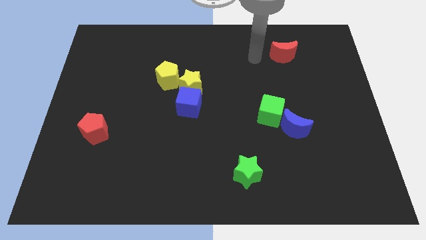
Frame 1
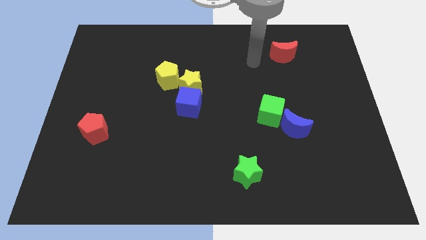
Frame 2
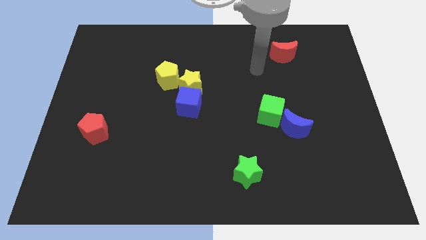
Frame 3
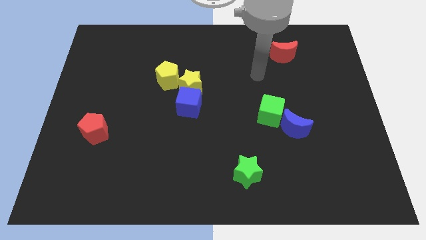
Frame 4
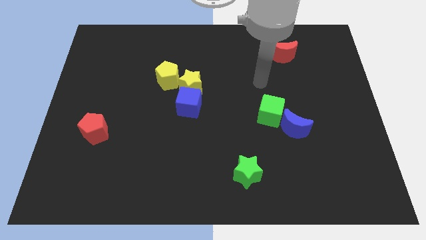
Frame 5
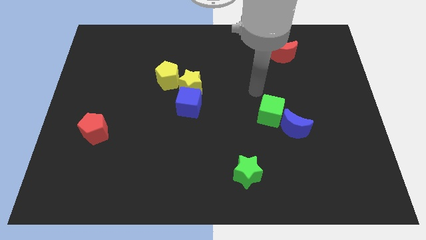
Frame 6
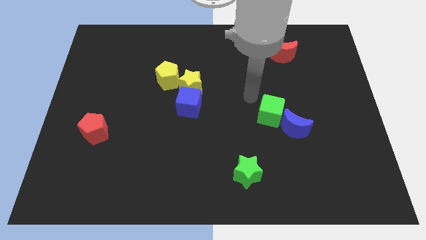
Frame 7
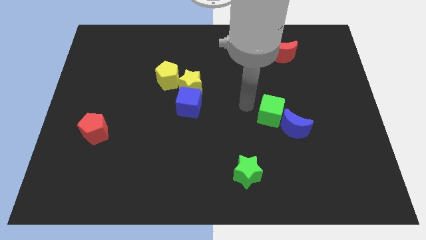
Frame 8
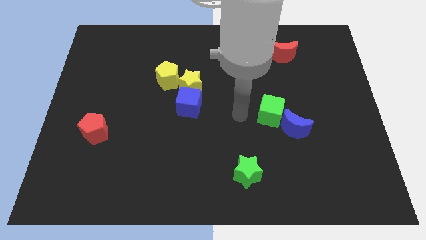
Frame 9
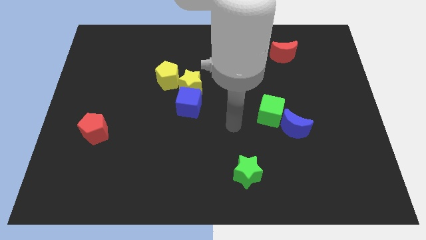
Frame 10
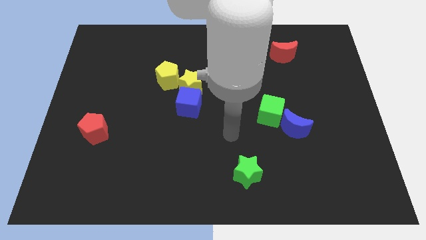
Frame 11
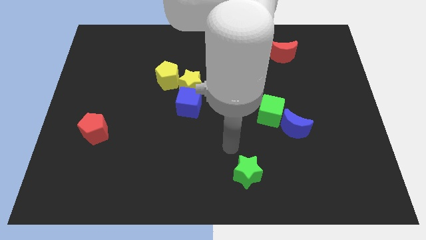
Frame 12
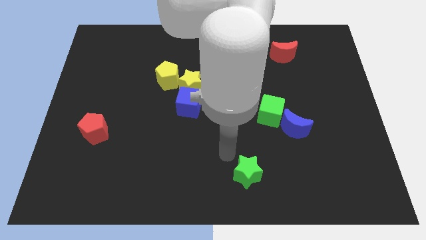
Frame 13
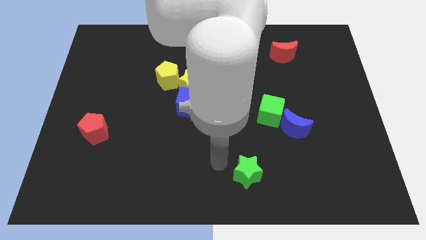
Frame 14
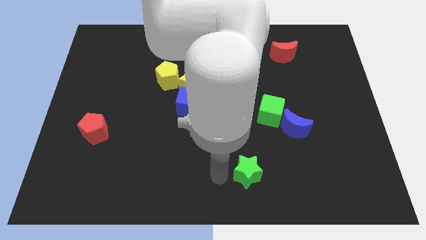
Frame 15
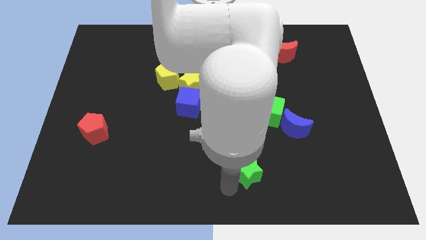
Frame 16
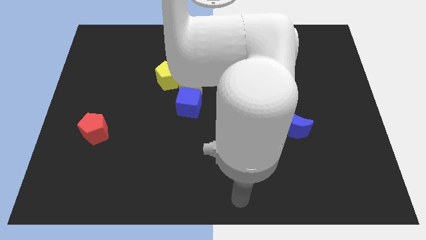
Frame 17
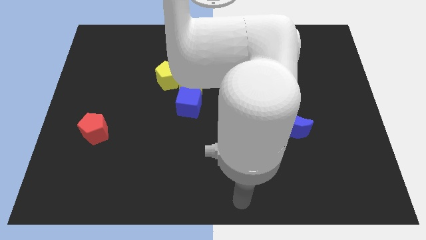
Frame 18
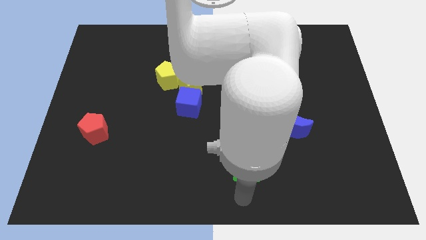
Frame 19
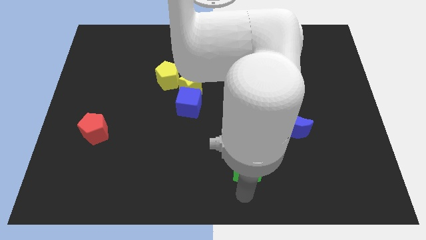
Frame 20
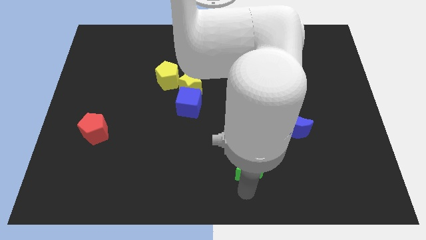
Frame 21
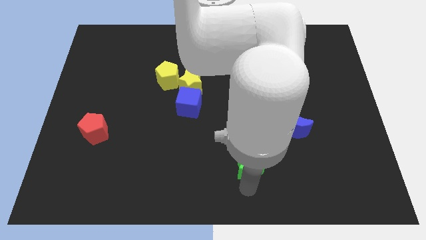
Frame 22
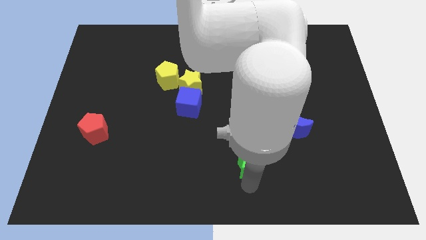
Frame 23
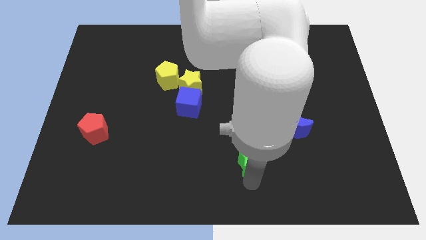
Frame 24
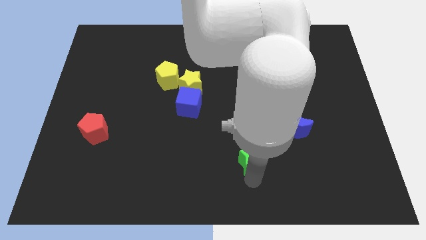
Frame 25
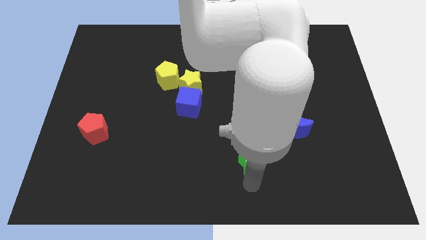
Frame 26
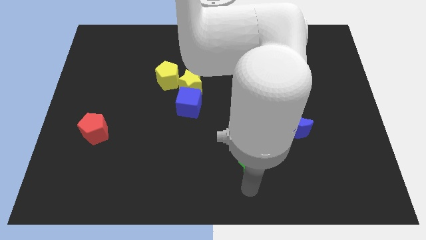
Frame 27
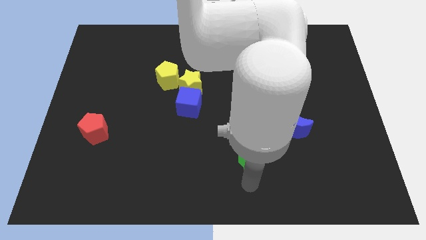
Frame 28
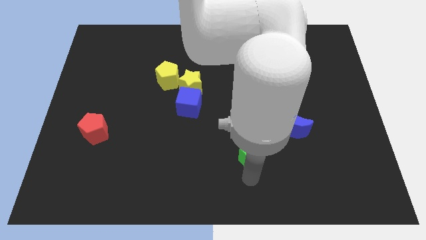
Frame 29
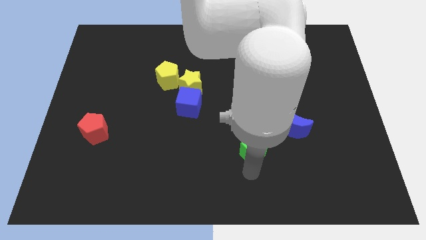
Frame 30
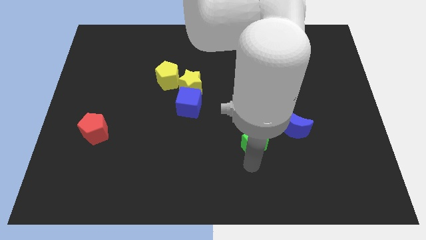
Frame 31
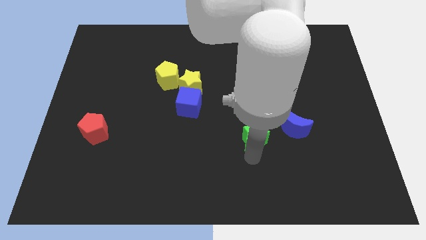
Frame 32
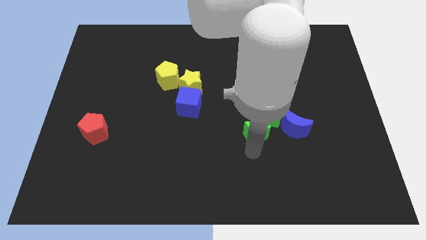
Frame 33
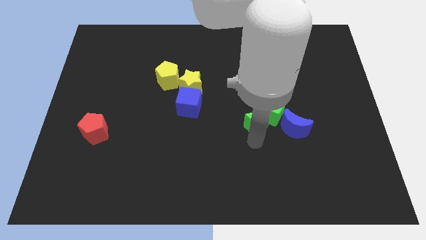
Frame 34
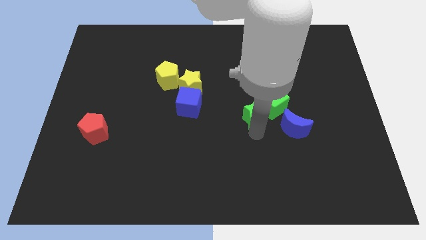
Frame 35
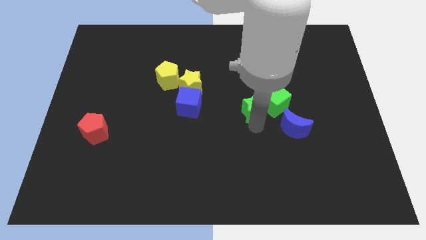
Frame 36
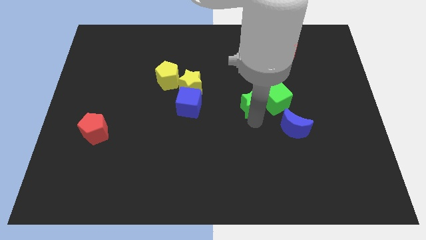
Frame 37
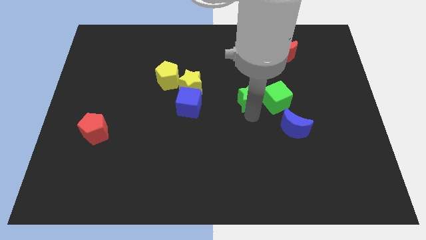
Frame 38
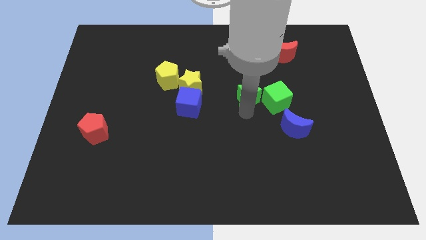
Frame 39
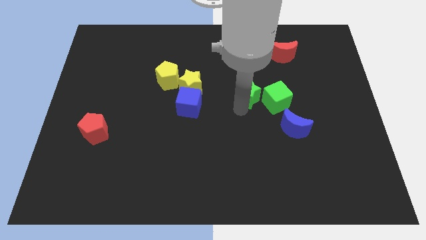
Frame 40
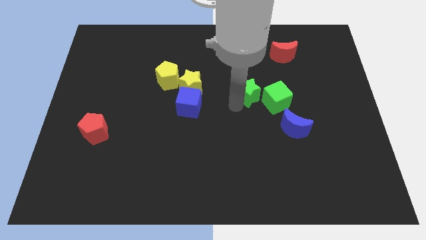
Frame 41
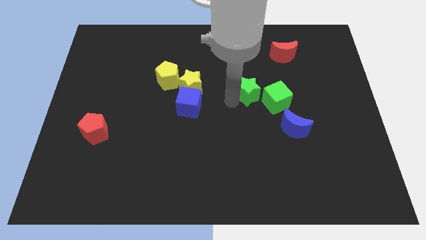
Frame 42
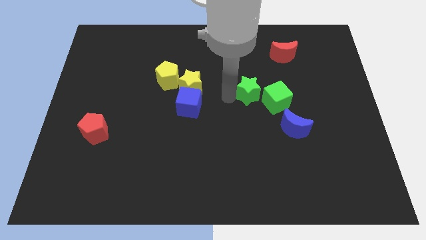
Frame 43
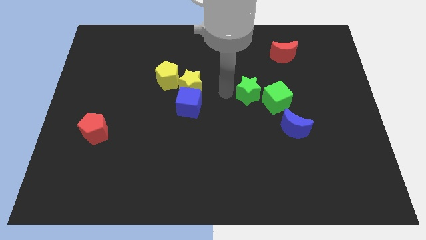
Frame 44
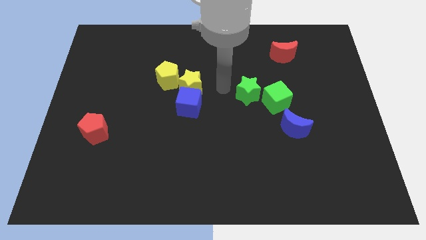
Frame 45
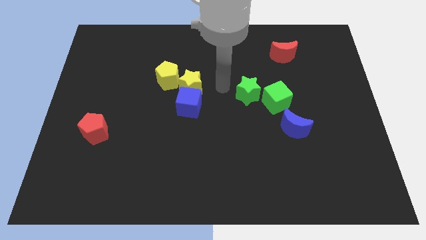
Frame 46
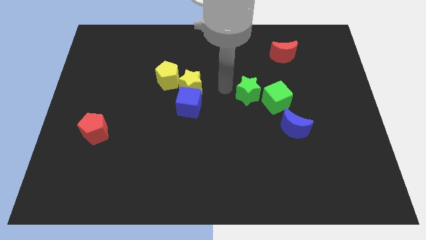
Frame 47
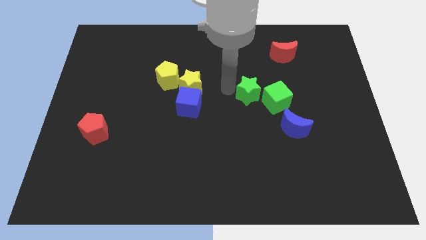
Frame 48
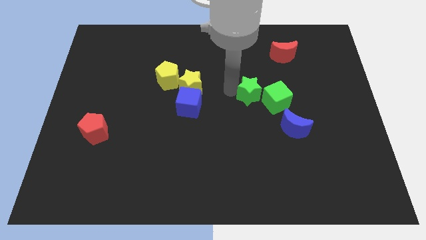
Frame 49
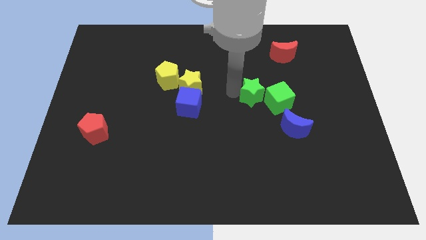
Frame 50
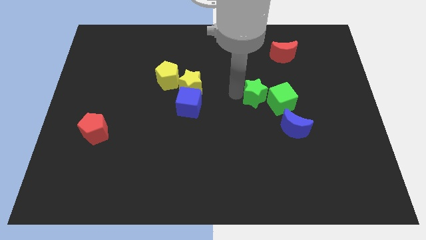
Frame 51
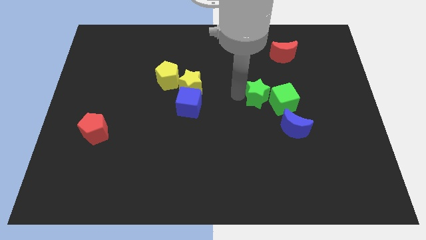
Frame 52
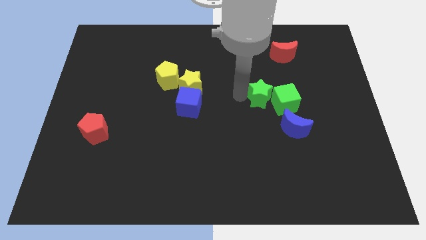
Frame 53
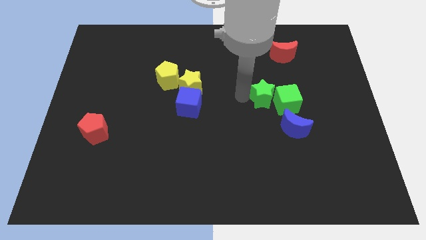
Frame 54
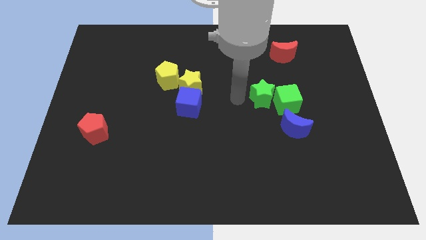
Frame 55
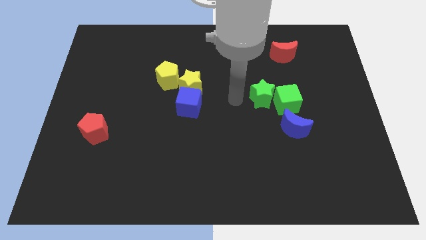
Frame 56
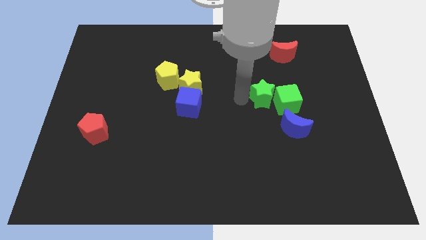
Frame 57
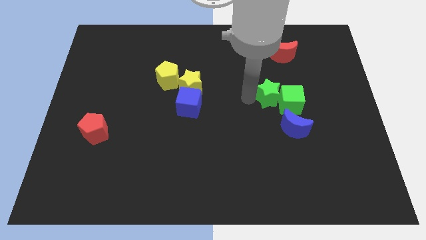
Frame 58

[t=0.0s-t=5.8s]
slide the green star above the blue moon
